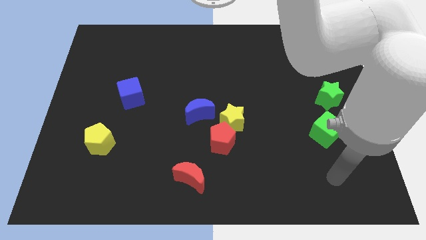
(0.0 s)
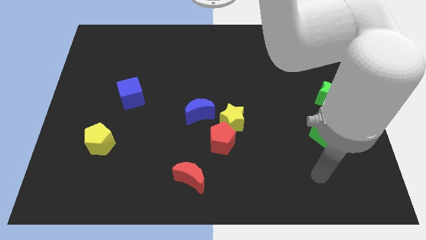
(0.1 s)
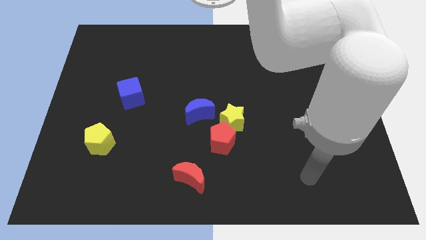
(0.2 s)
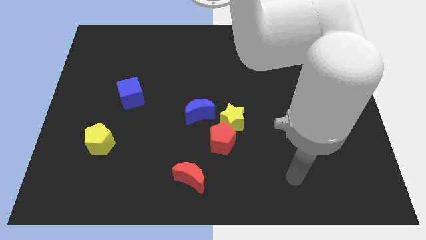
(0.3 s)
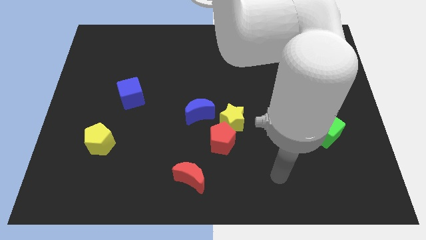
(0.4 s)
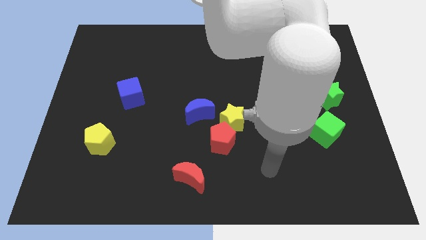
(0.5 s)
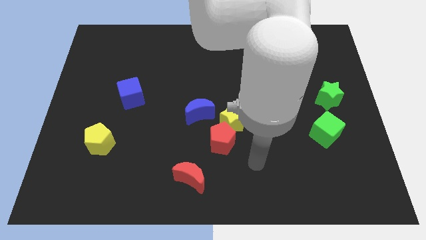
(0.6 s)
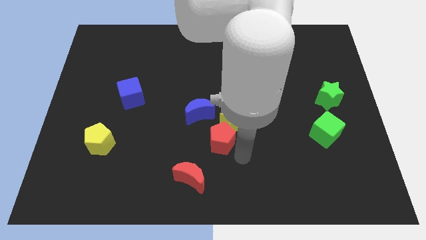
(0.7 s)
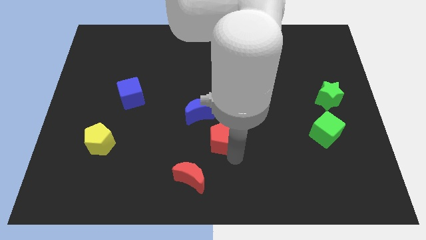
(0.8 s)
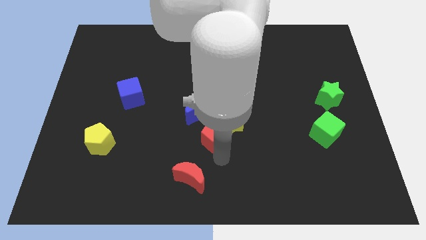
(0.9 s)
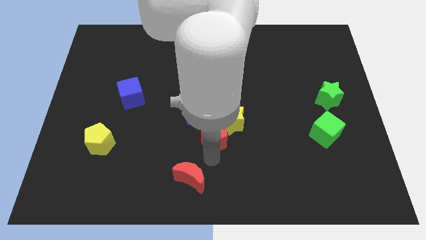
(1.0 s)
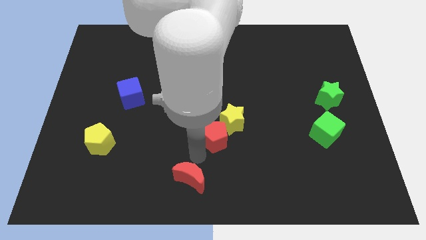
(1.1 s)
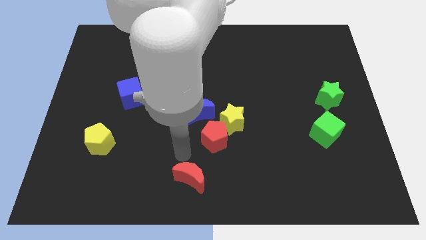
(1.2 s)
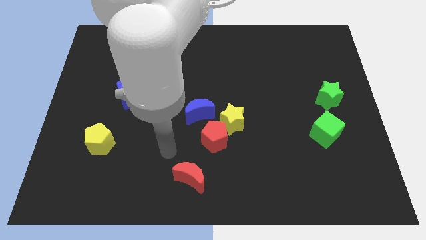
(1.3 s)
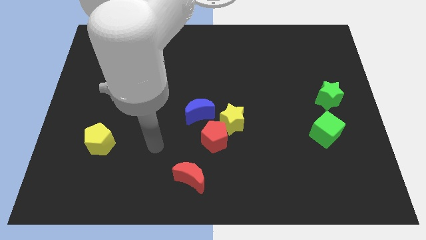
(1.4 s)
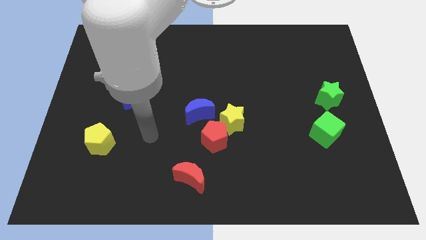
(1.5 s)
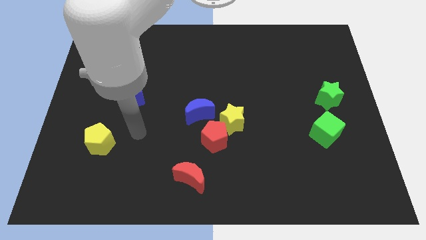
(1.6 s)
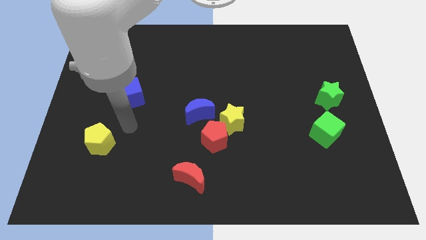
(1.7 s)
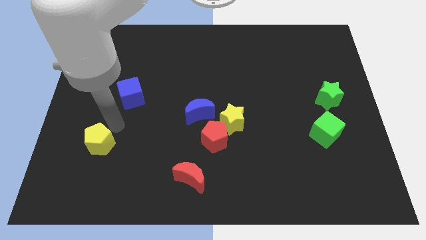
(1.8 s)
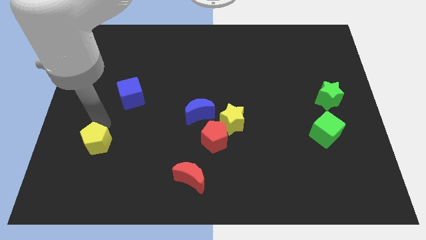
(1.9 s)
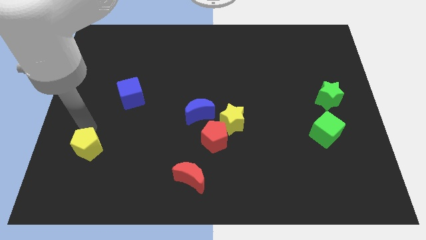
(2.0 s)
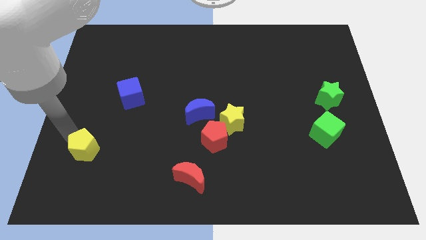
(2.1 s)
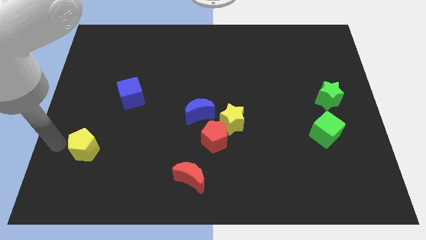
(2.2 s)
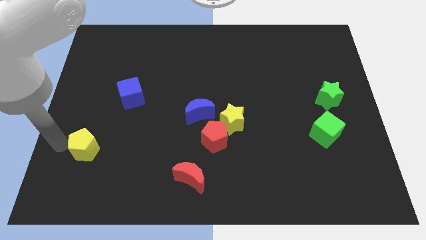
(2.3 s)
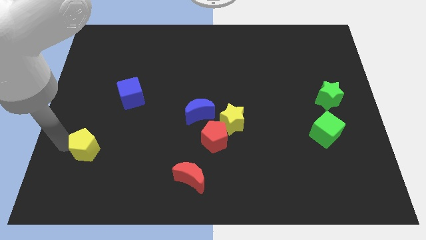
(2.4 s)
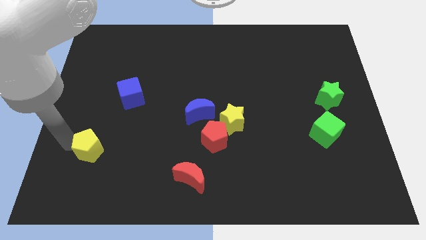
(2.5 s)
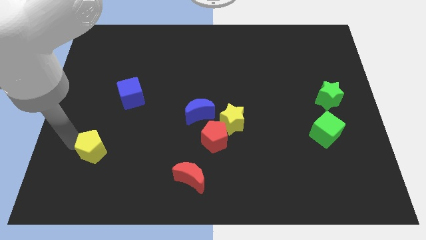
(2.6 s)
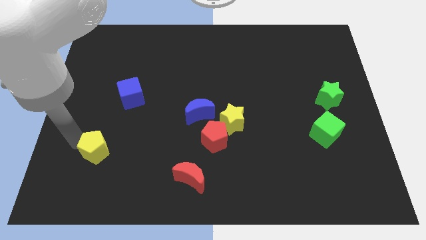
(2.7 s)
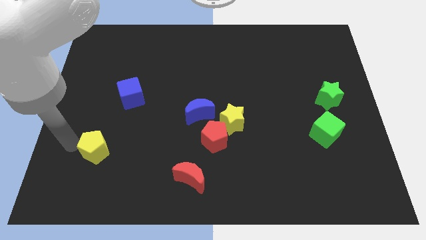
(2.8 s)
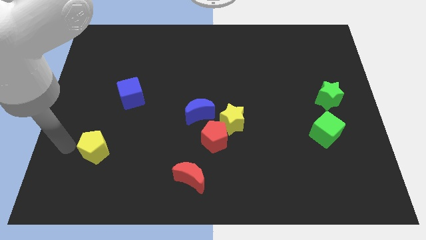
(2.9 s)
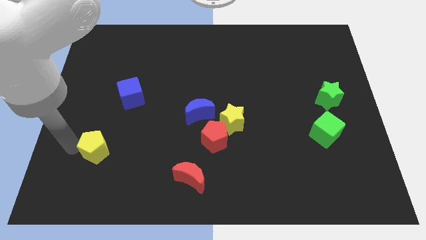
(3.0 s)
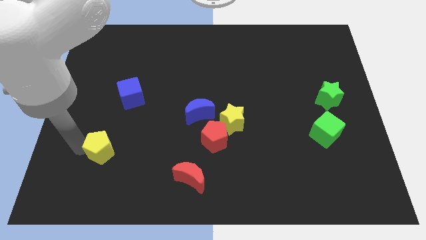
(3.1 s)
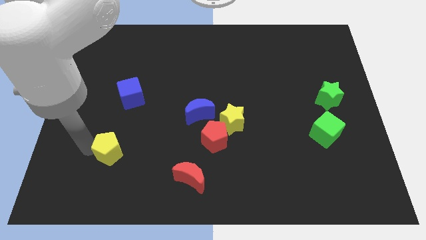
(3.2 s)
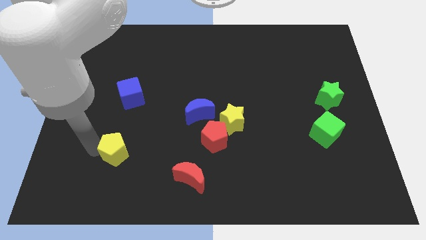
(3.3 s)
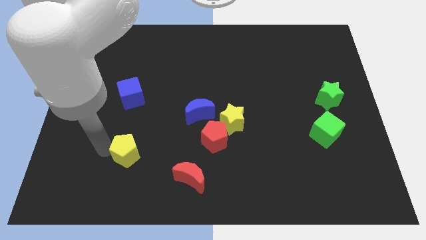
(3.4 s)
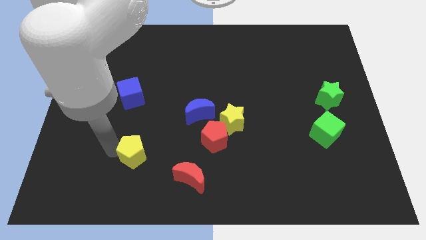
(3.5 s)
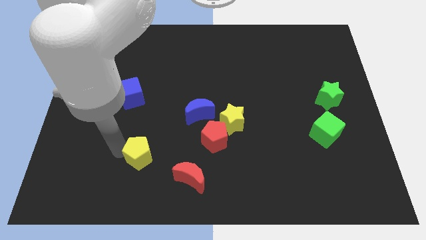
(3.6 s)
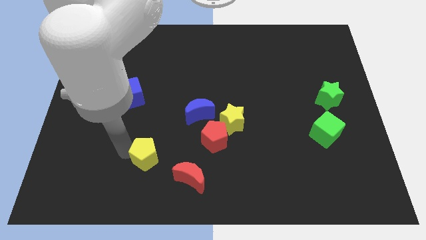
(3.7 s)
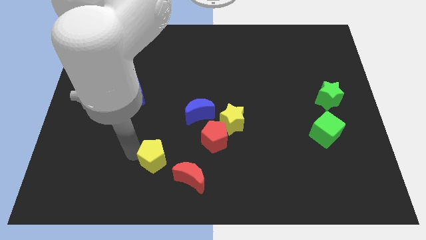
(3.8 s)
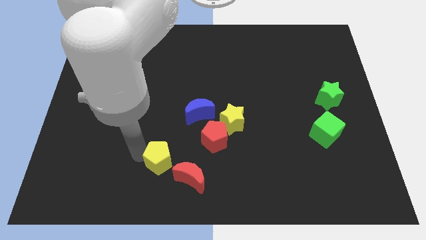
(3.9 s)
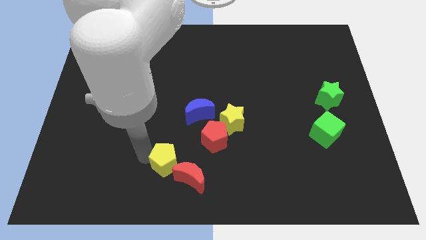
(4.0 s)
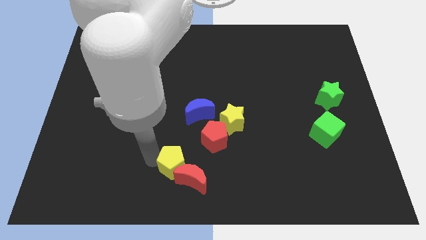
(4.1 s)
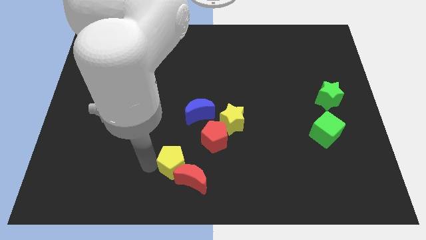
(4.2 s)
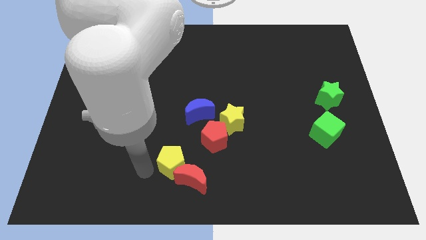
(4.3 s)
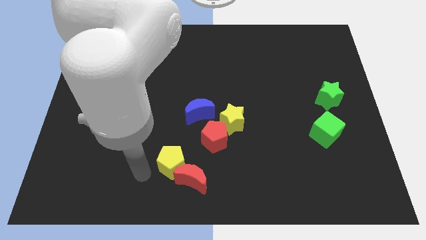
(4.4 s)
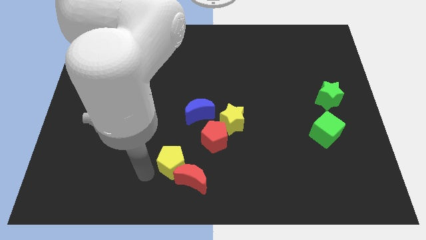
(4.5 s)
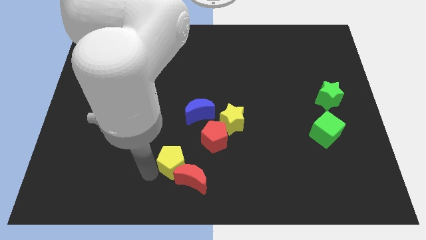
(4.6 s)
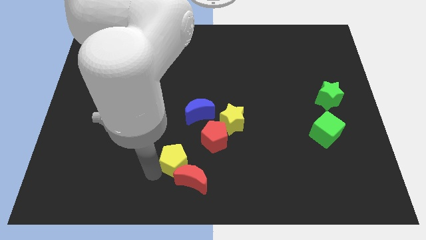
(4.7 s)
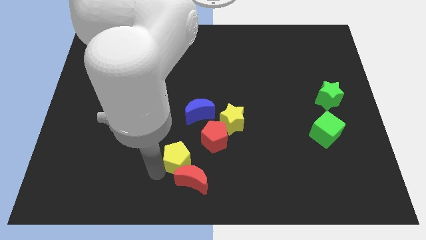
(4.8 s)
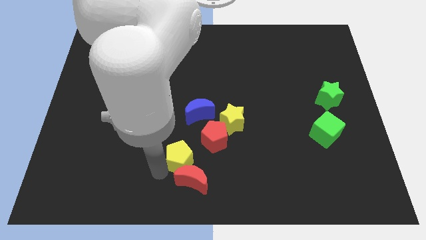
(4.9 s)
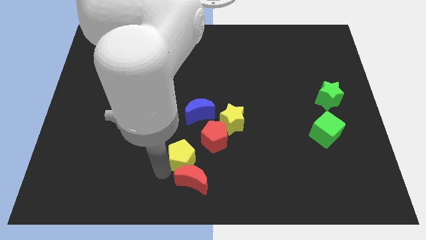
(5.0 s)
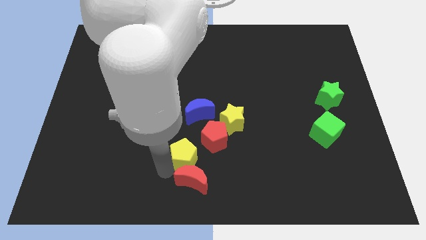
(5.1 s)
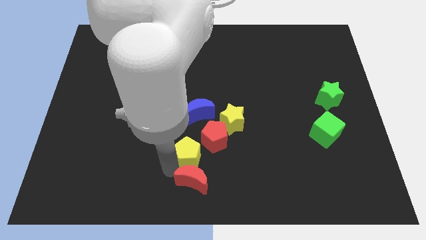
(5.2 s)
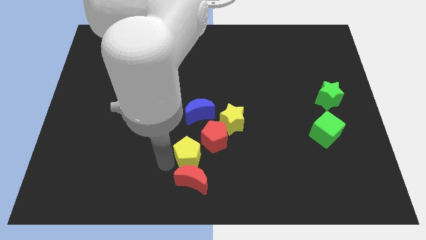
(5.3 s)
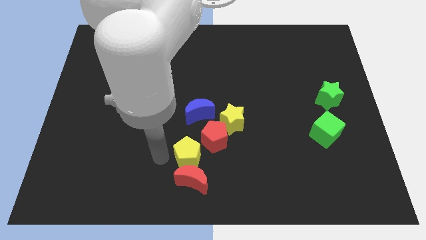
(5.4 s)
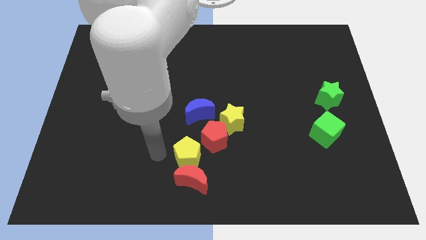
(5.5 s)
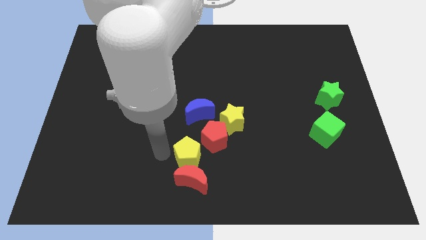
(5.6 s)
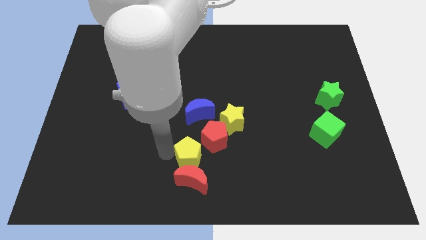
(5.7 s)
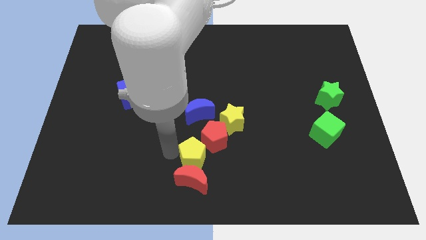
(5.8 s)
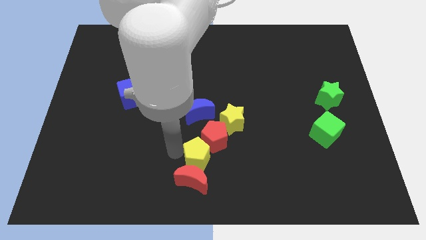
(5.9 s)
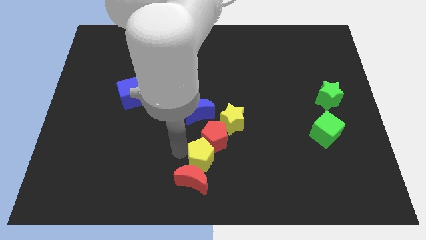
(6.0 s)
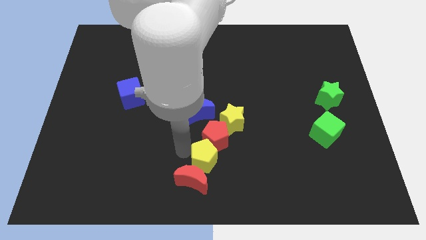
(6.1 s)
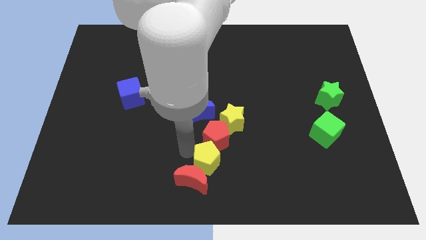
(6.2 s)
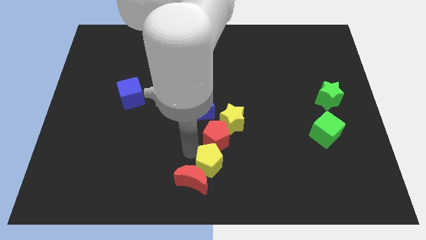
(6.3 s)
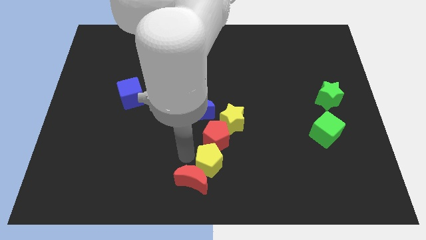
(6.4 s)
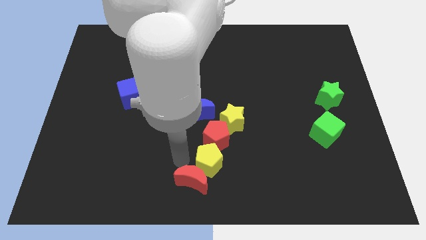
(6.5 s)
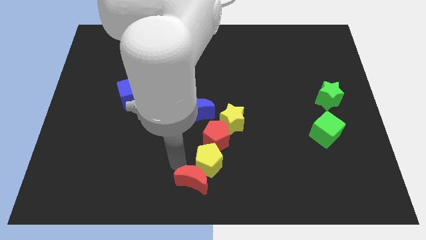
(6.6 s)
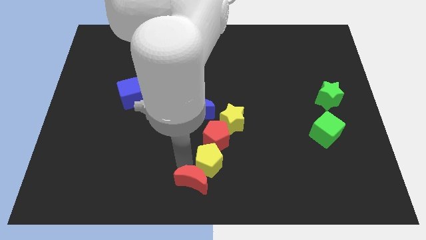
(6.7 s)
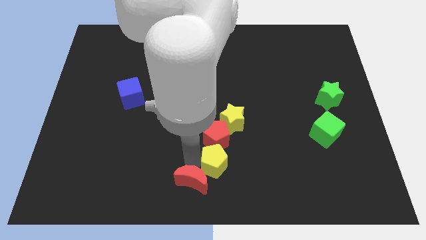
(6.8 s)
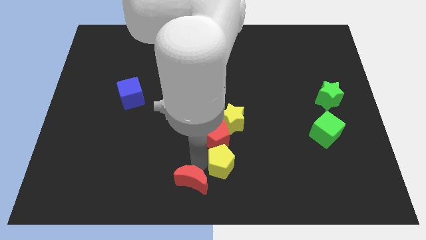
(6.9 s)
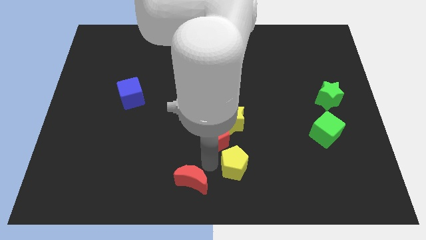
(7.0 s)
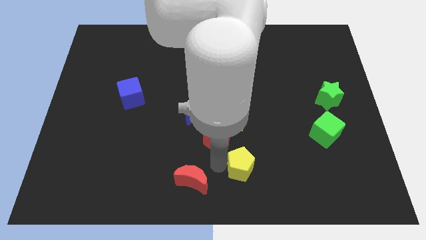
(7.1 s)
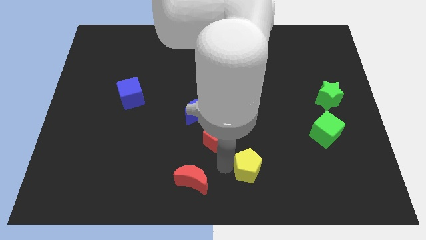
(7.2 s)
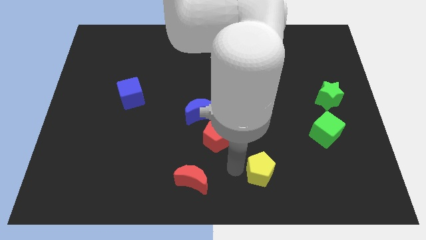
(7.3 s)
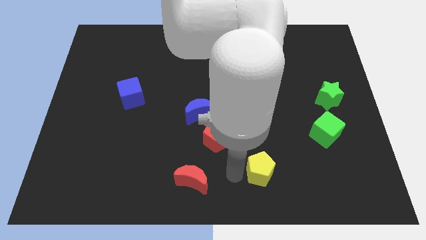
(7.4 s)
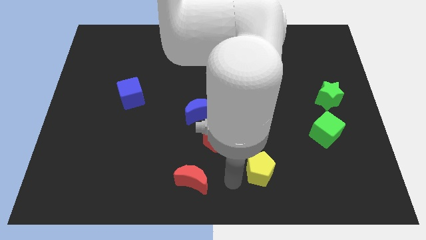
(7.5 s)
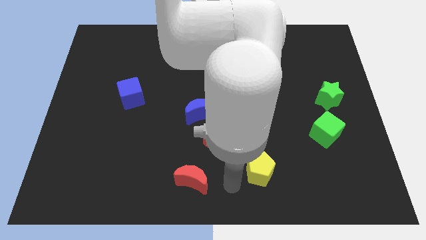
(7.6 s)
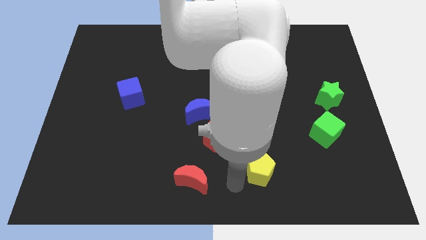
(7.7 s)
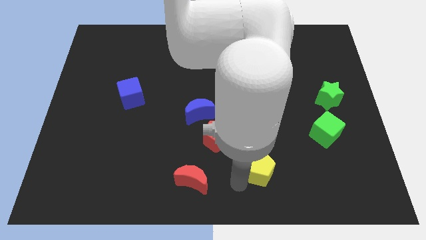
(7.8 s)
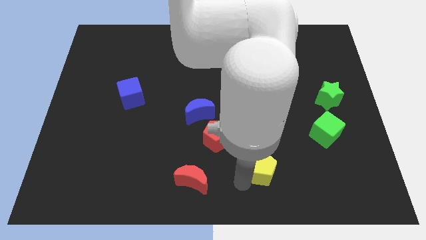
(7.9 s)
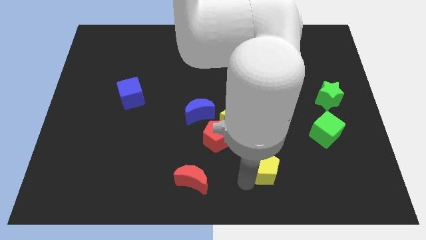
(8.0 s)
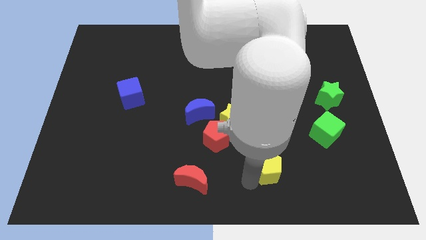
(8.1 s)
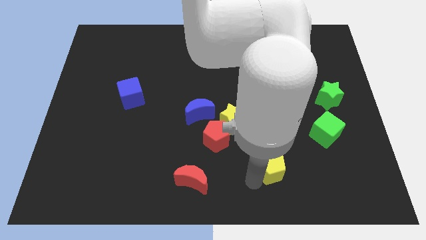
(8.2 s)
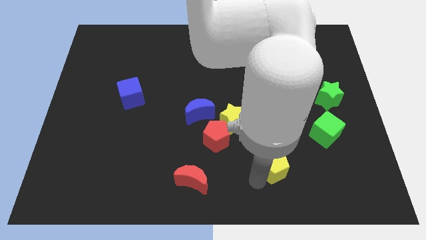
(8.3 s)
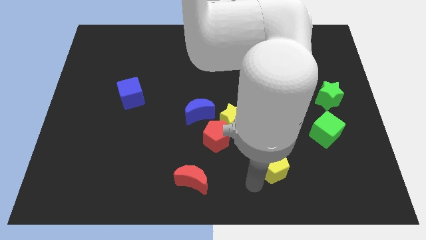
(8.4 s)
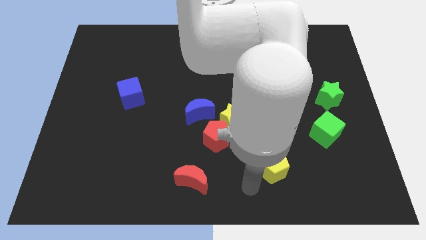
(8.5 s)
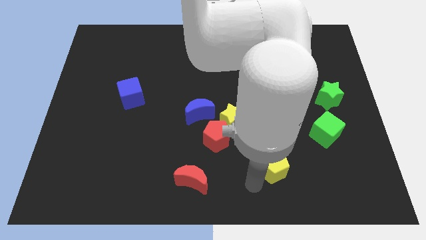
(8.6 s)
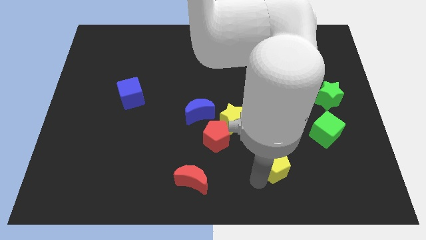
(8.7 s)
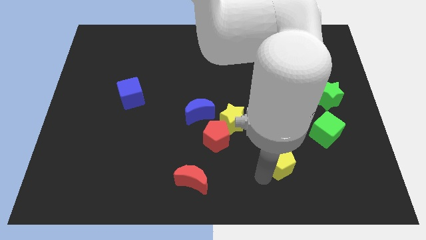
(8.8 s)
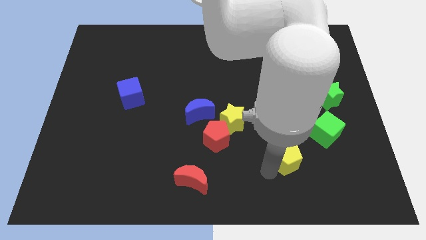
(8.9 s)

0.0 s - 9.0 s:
push the yellow pentagon diagonally down and to the left of the green cube
